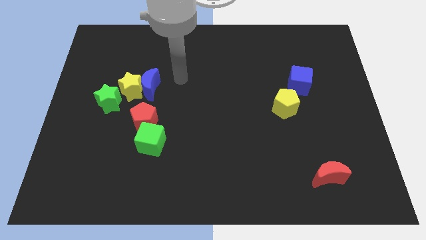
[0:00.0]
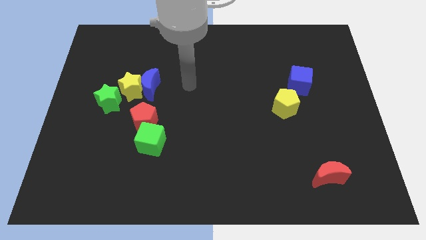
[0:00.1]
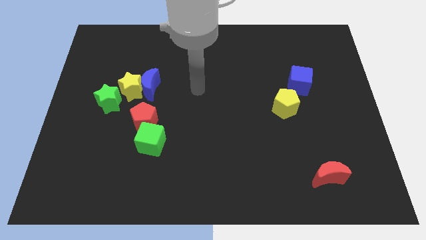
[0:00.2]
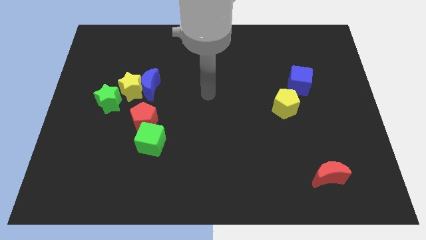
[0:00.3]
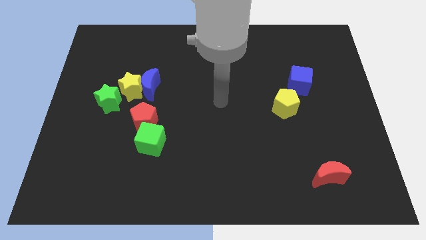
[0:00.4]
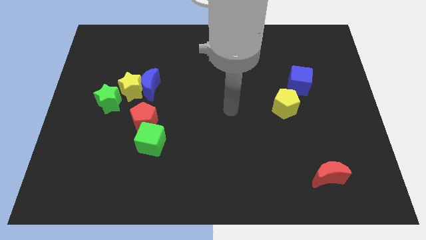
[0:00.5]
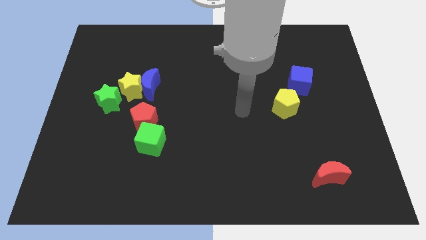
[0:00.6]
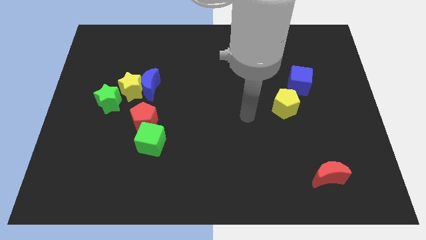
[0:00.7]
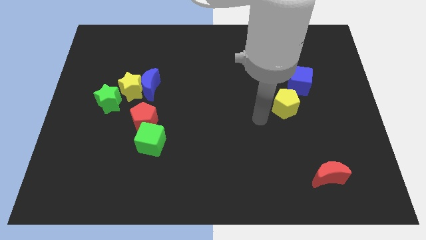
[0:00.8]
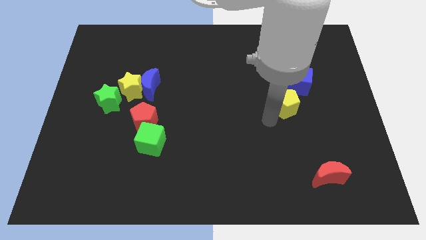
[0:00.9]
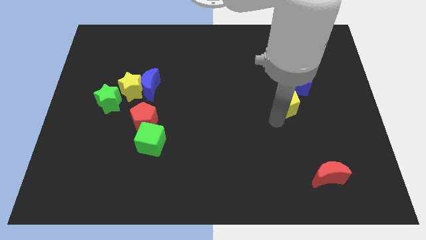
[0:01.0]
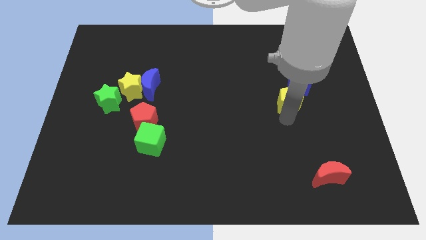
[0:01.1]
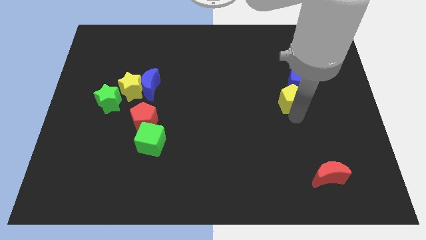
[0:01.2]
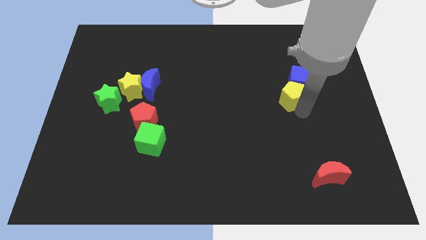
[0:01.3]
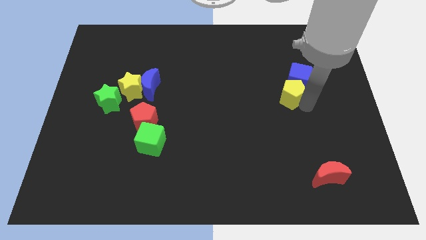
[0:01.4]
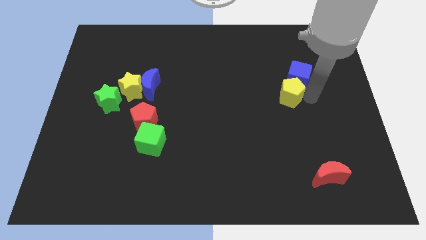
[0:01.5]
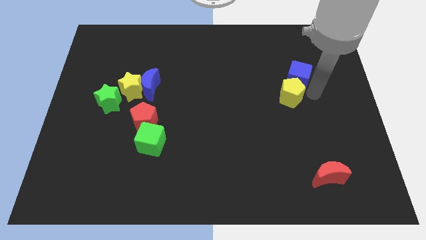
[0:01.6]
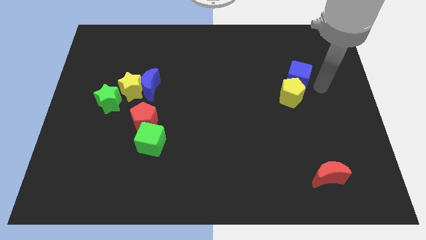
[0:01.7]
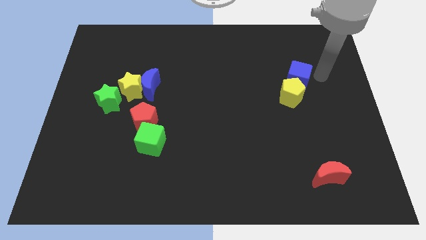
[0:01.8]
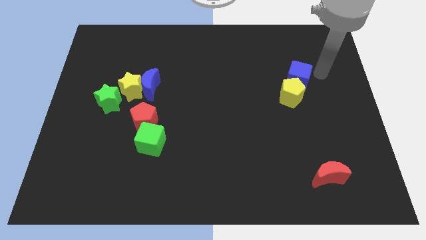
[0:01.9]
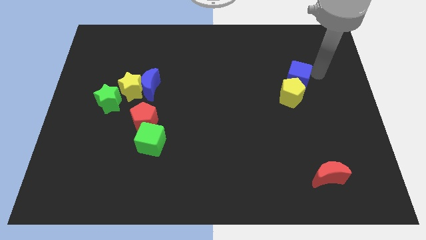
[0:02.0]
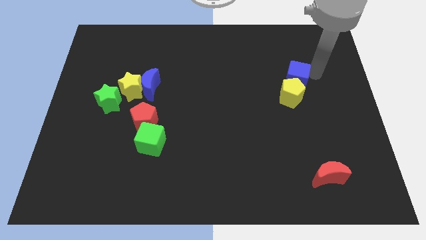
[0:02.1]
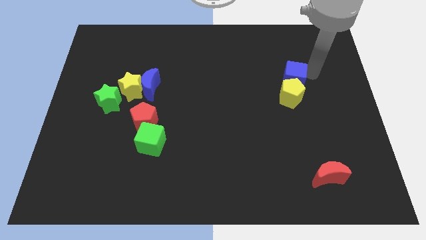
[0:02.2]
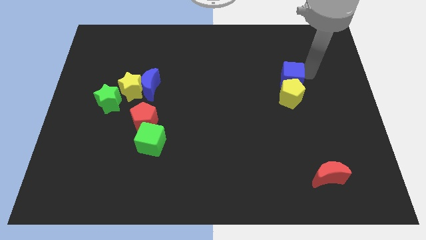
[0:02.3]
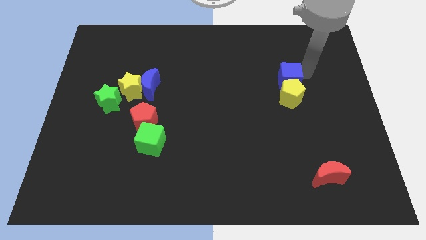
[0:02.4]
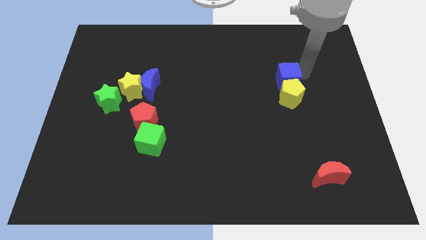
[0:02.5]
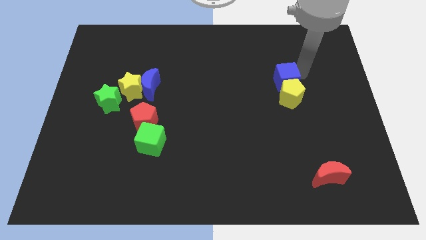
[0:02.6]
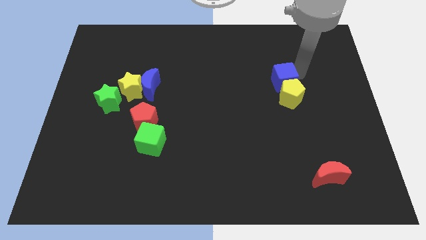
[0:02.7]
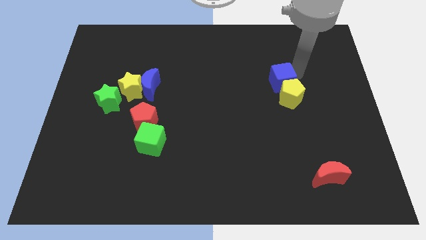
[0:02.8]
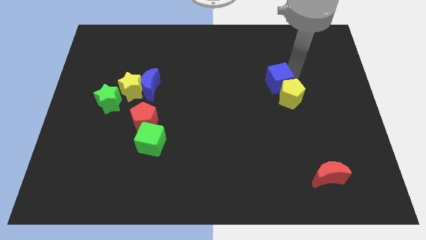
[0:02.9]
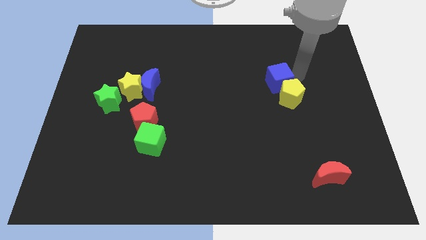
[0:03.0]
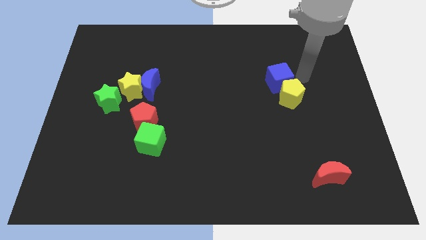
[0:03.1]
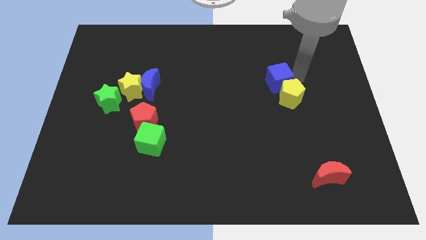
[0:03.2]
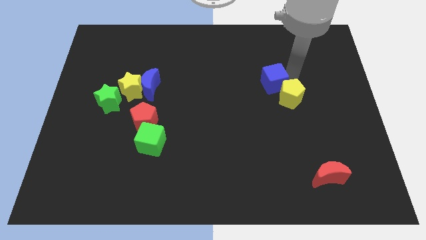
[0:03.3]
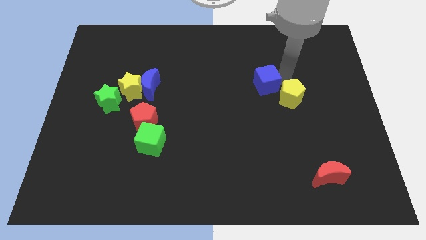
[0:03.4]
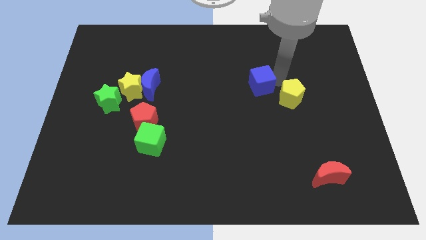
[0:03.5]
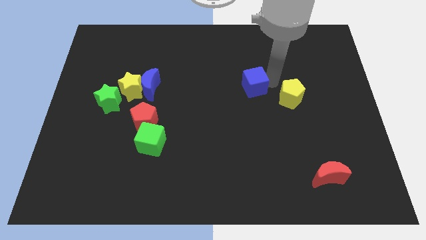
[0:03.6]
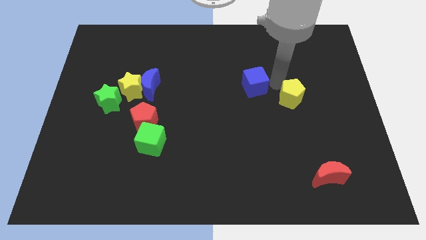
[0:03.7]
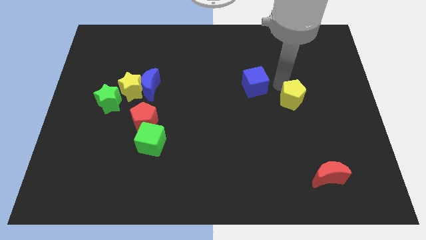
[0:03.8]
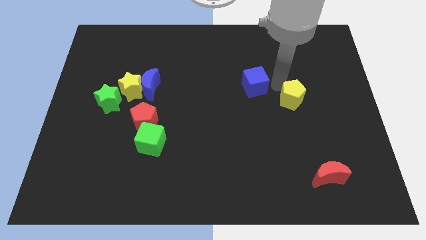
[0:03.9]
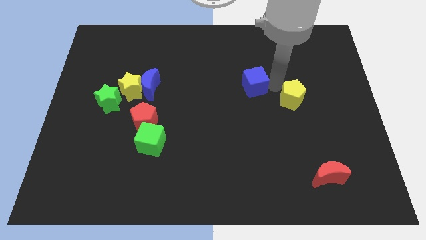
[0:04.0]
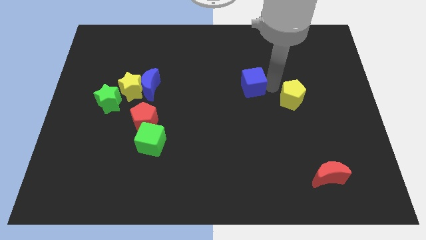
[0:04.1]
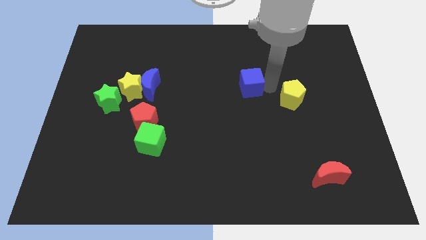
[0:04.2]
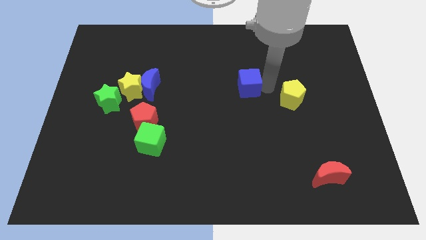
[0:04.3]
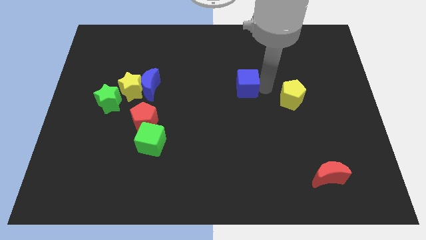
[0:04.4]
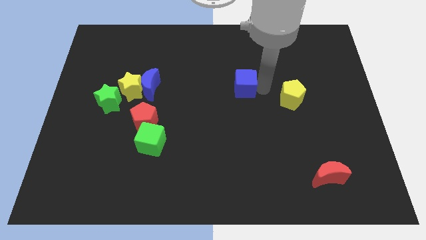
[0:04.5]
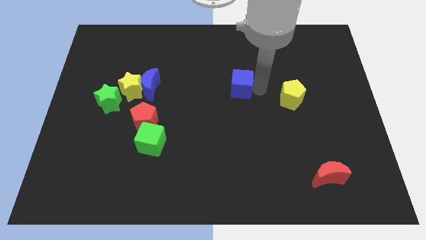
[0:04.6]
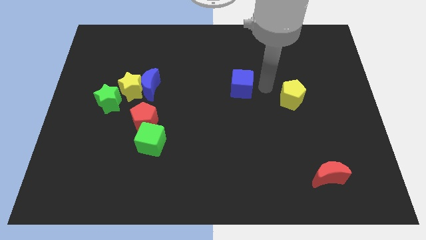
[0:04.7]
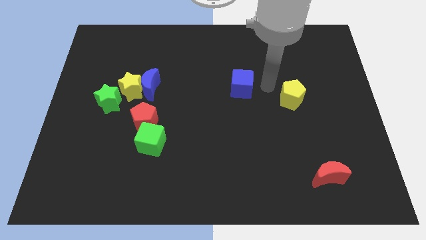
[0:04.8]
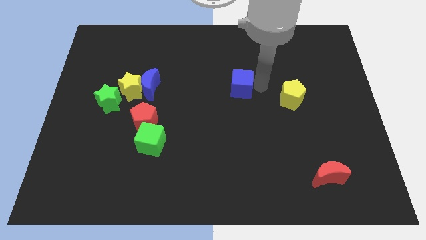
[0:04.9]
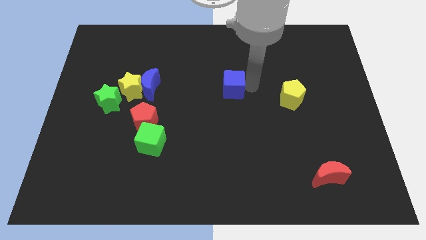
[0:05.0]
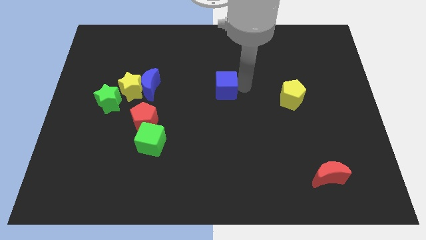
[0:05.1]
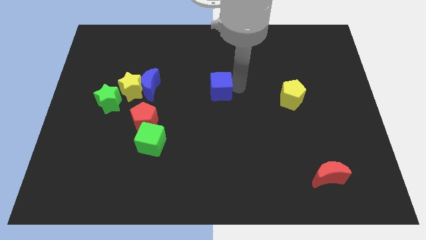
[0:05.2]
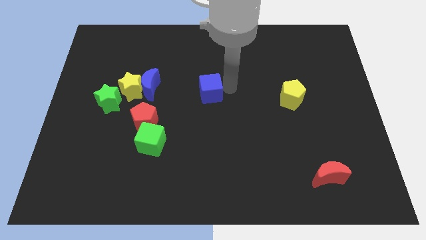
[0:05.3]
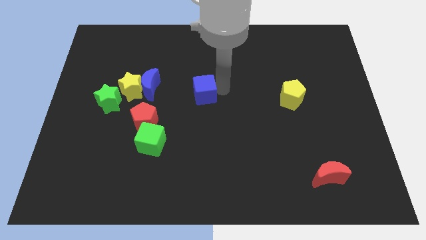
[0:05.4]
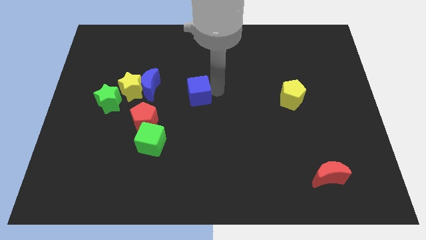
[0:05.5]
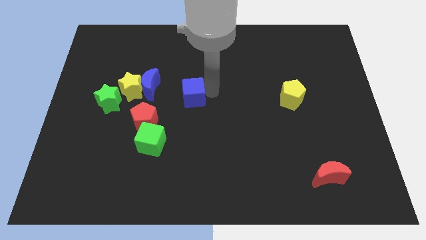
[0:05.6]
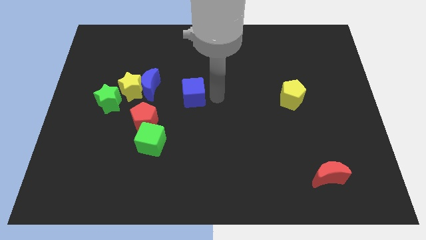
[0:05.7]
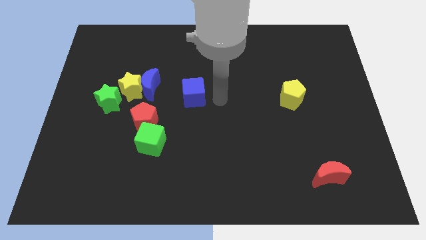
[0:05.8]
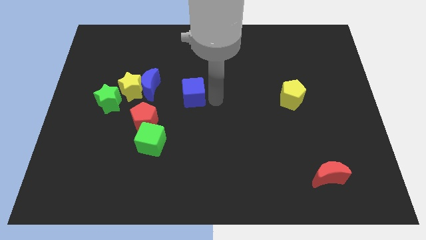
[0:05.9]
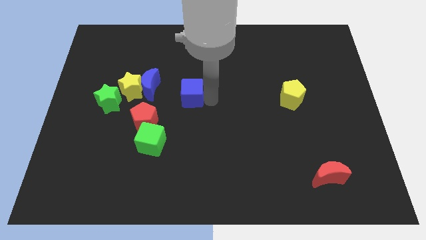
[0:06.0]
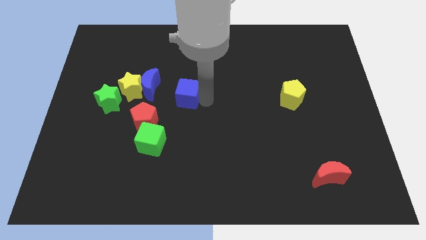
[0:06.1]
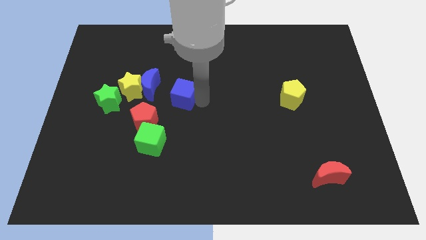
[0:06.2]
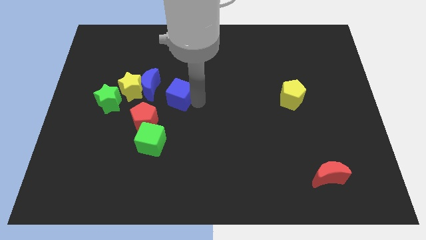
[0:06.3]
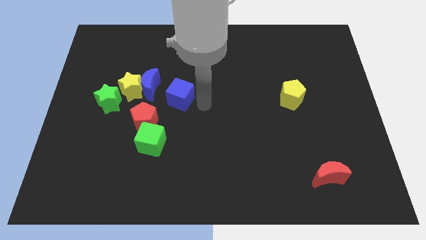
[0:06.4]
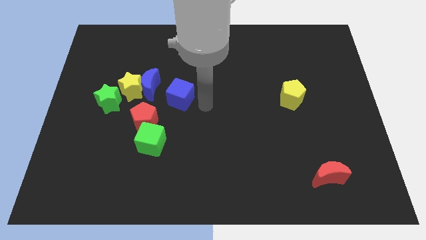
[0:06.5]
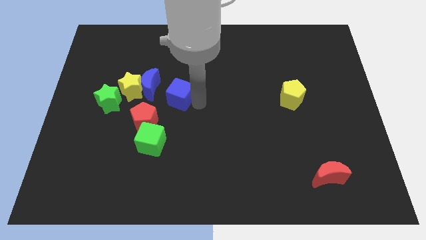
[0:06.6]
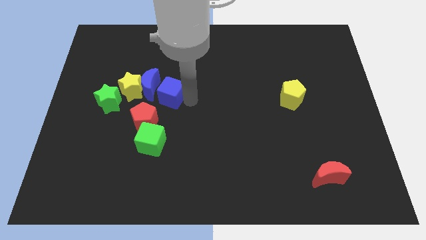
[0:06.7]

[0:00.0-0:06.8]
push the blue cube to the blue moon

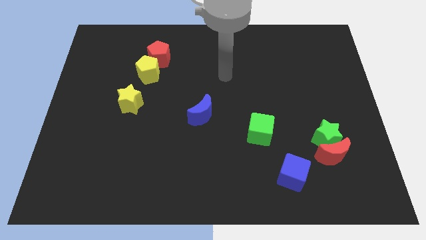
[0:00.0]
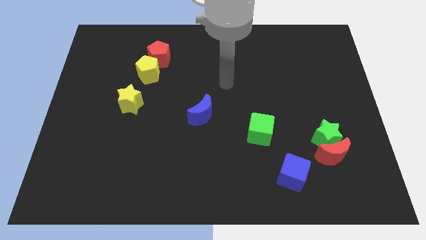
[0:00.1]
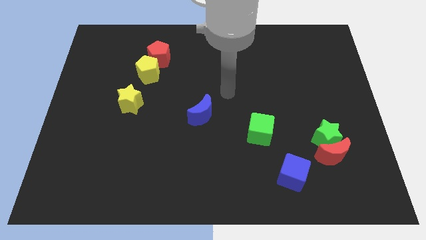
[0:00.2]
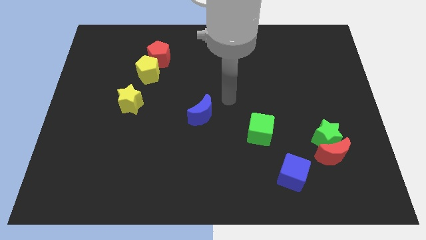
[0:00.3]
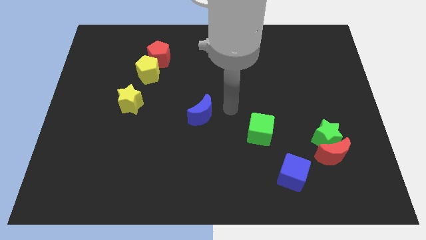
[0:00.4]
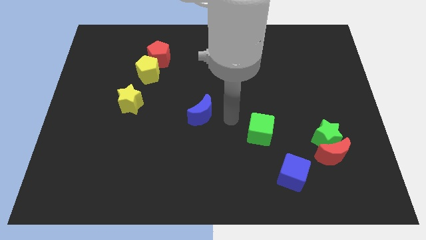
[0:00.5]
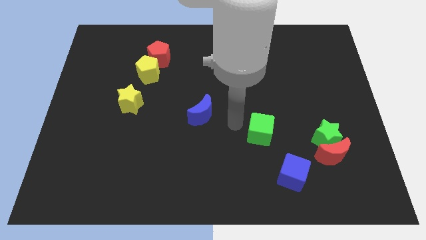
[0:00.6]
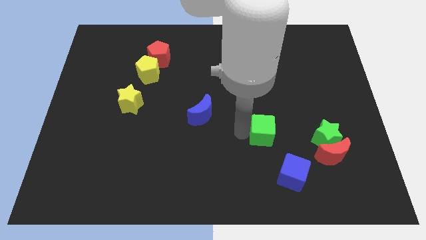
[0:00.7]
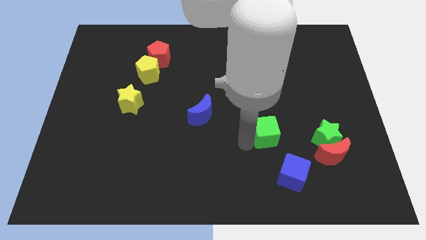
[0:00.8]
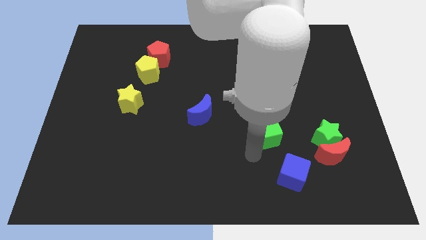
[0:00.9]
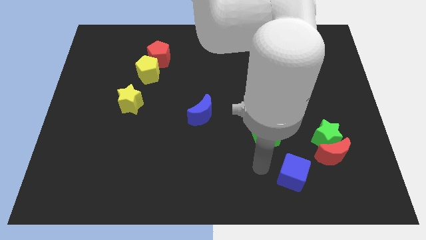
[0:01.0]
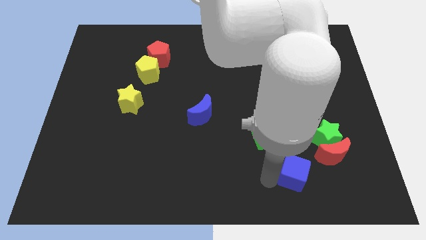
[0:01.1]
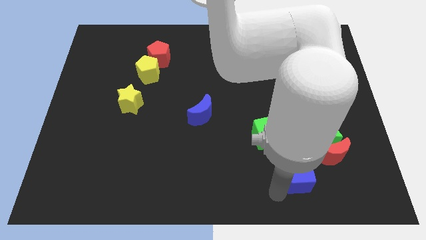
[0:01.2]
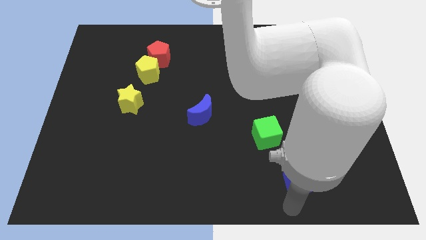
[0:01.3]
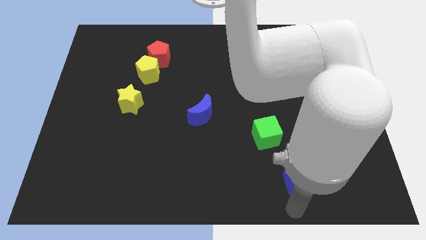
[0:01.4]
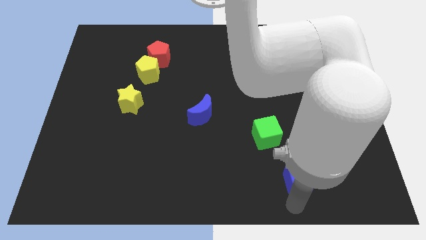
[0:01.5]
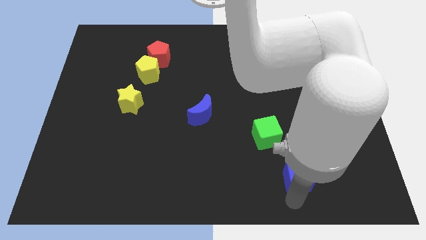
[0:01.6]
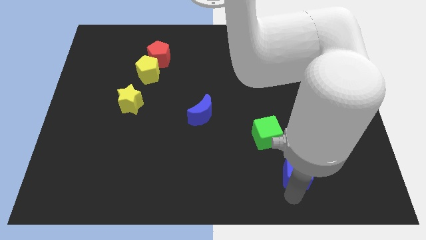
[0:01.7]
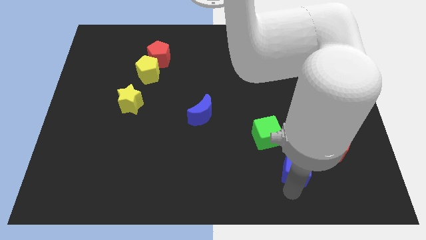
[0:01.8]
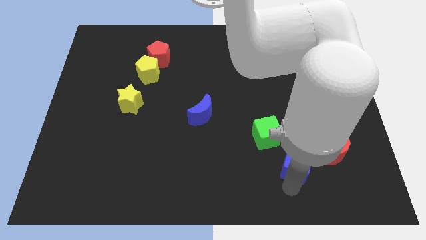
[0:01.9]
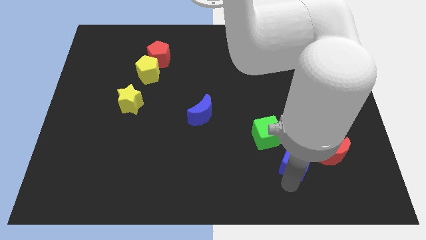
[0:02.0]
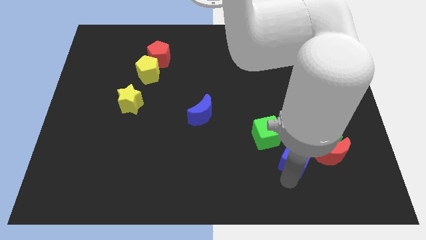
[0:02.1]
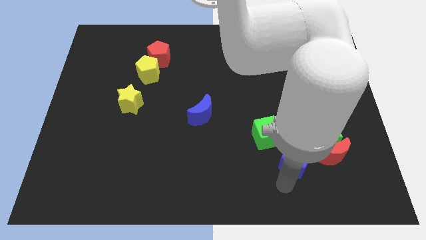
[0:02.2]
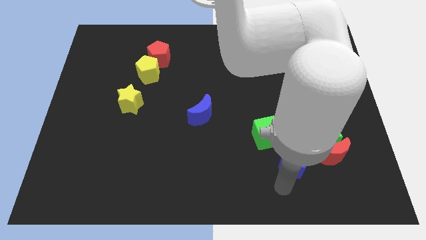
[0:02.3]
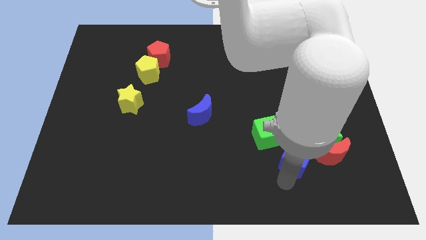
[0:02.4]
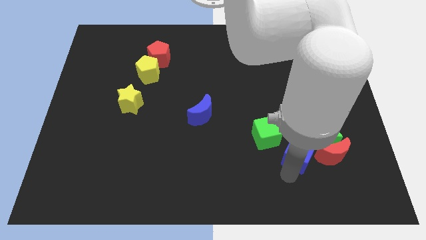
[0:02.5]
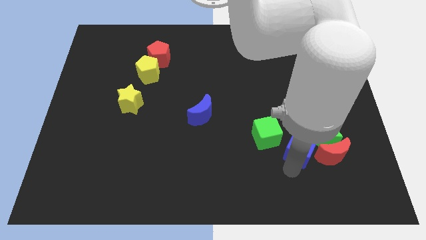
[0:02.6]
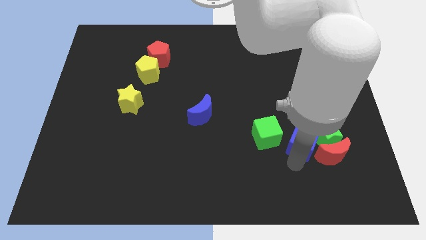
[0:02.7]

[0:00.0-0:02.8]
put the blue cube to the green star
